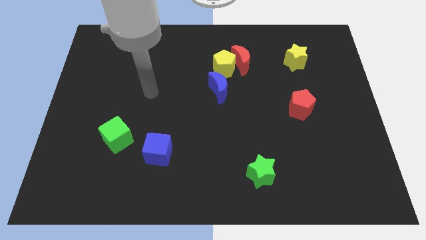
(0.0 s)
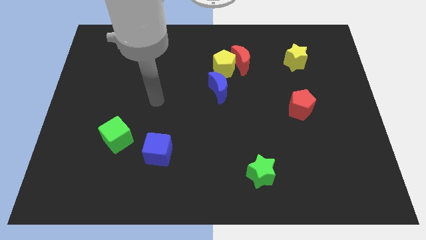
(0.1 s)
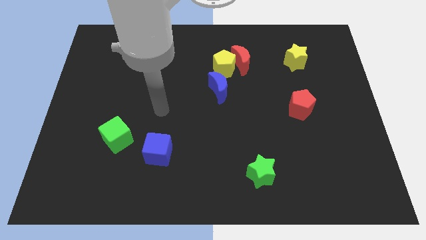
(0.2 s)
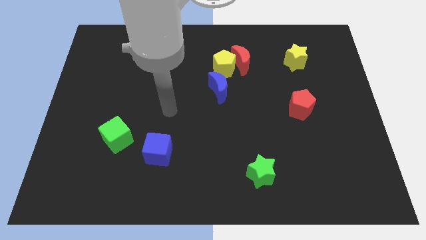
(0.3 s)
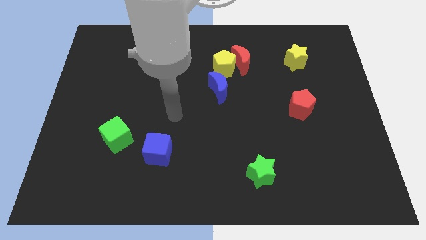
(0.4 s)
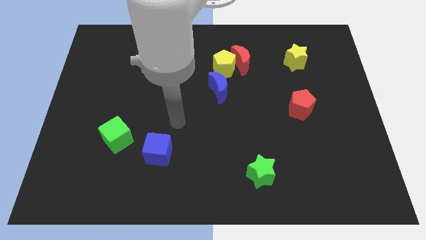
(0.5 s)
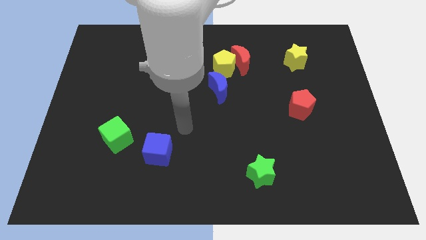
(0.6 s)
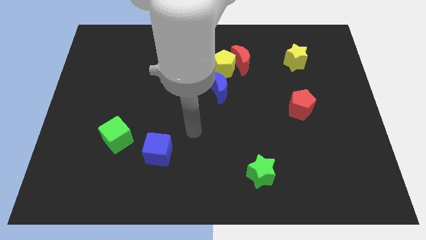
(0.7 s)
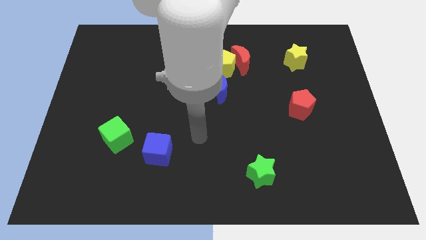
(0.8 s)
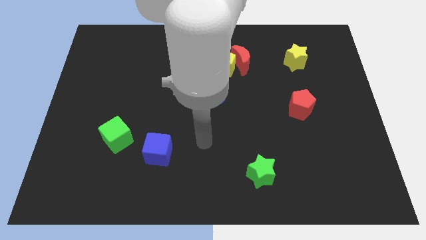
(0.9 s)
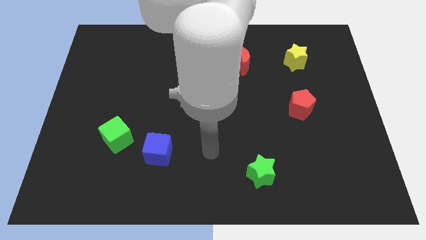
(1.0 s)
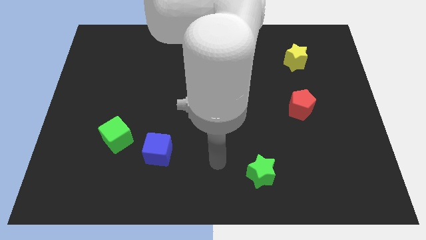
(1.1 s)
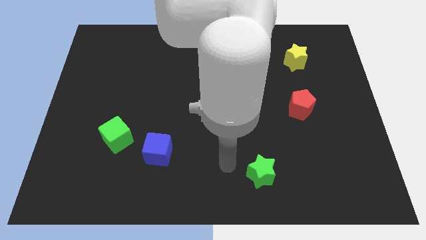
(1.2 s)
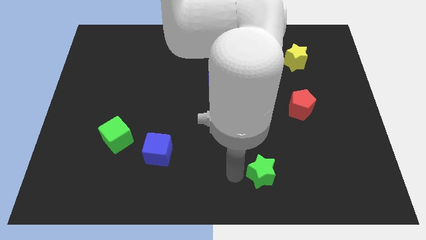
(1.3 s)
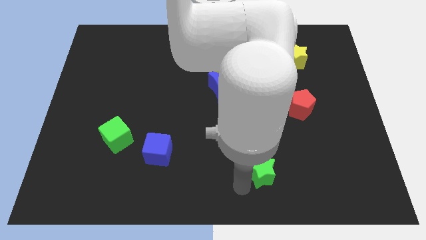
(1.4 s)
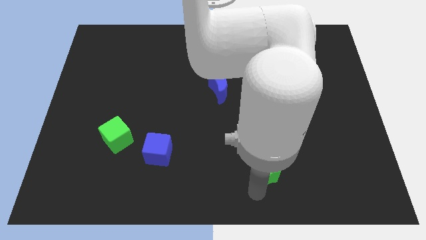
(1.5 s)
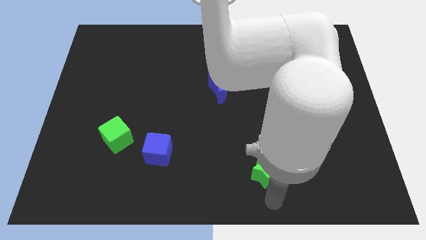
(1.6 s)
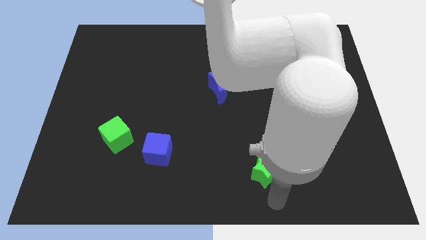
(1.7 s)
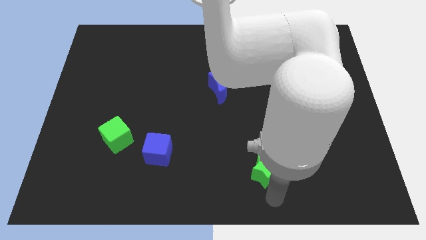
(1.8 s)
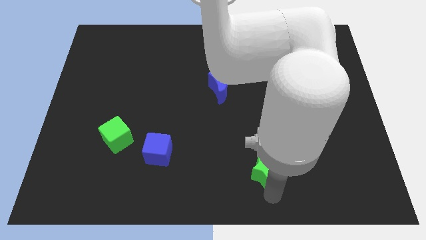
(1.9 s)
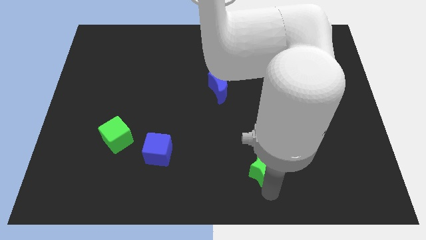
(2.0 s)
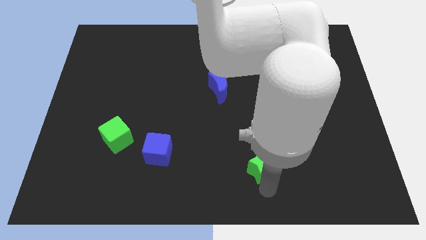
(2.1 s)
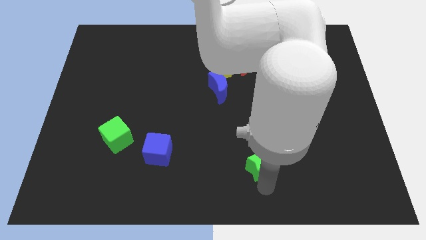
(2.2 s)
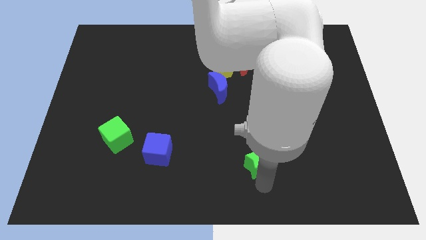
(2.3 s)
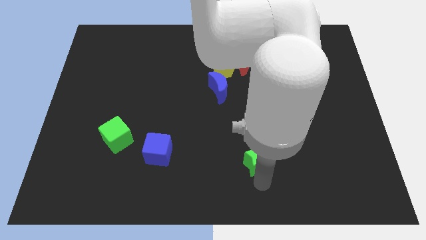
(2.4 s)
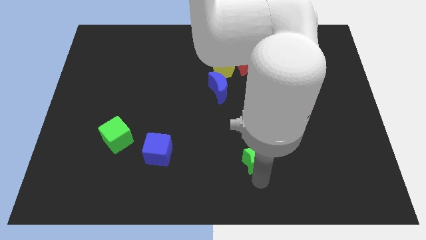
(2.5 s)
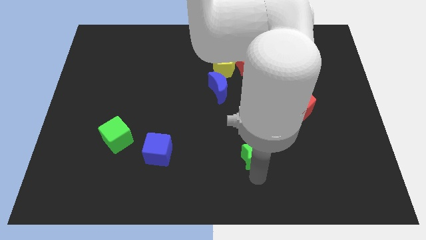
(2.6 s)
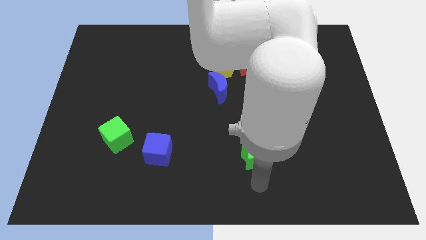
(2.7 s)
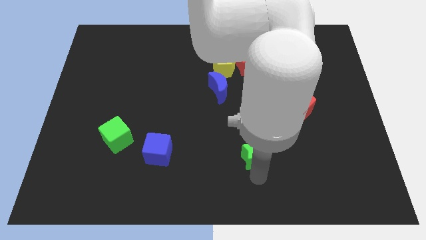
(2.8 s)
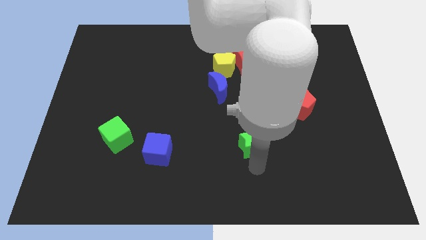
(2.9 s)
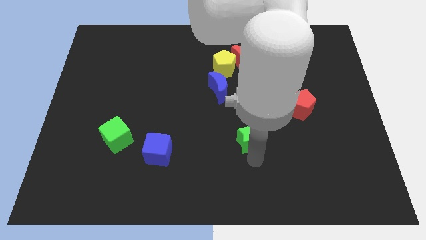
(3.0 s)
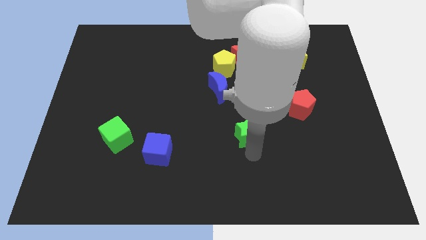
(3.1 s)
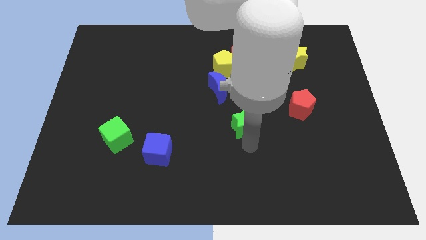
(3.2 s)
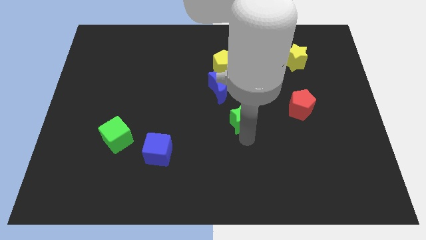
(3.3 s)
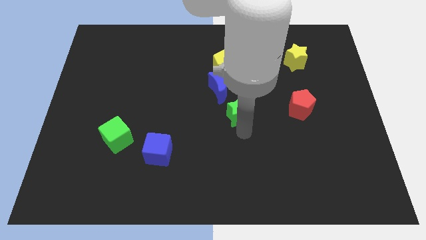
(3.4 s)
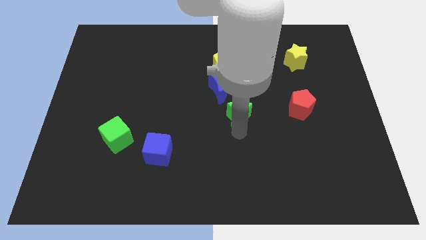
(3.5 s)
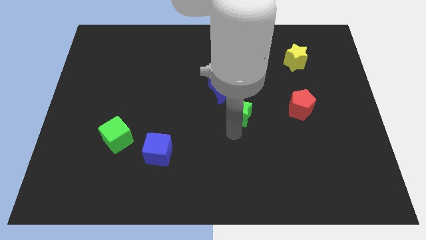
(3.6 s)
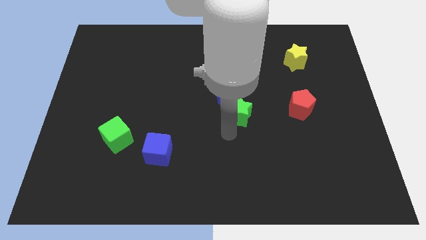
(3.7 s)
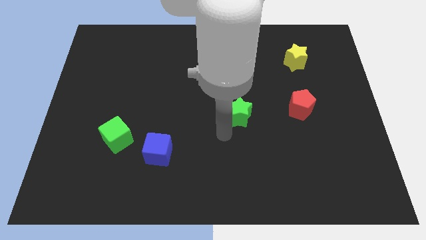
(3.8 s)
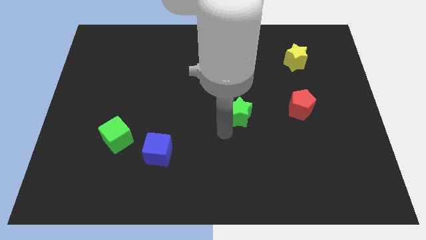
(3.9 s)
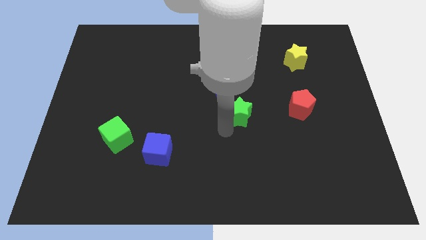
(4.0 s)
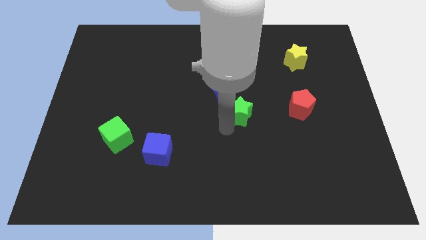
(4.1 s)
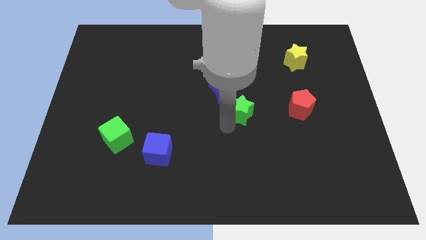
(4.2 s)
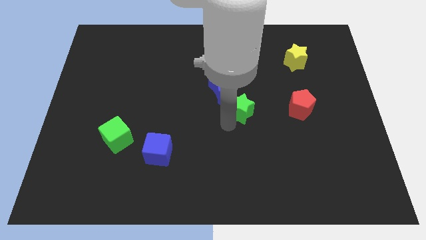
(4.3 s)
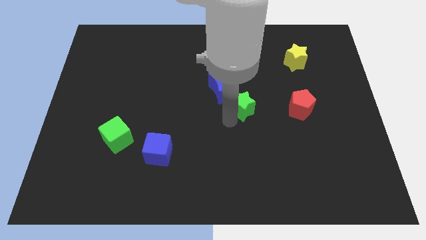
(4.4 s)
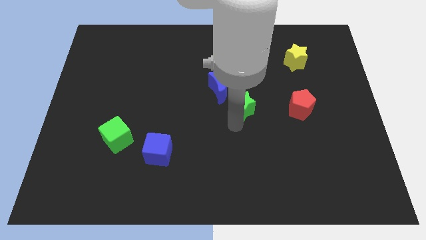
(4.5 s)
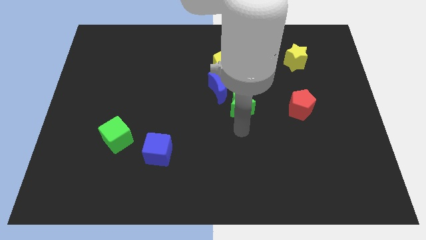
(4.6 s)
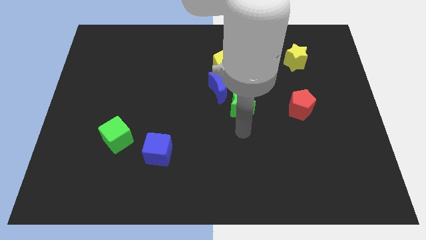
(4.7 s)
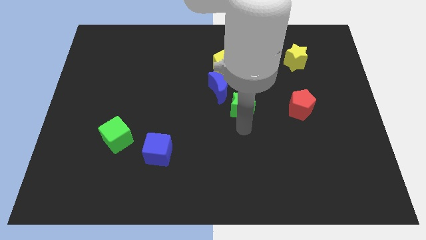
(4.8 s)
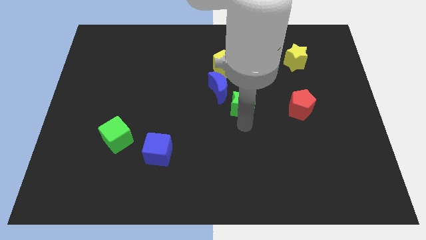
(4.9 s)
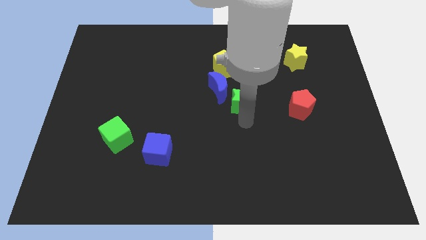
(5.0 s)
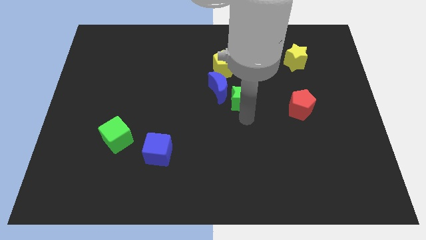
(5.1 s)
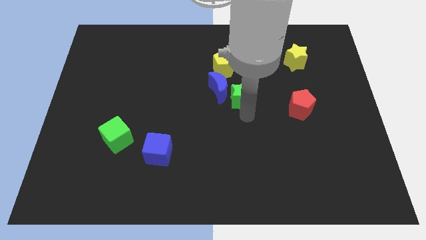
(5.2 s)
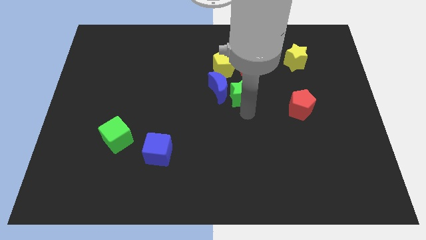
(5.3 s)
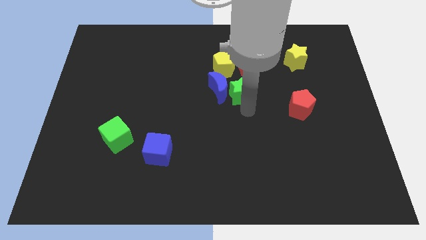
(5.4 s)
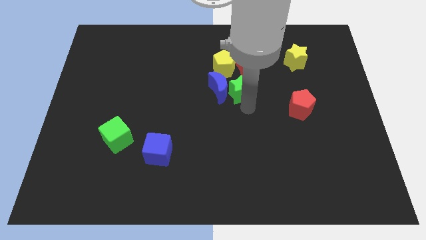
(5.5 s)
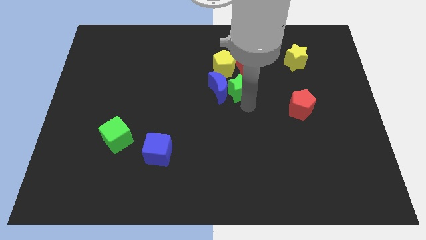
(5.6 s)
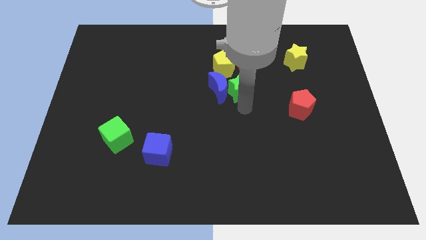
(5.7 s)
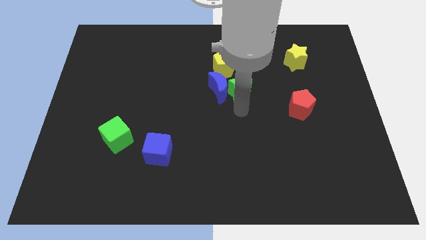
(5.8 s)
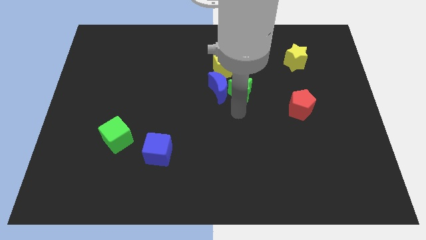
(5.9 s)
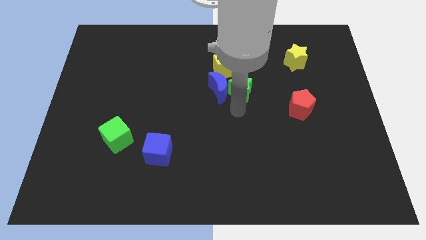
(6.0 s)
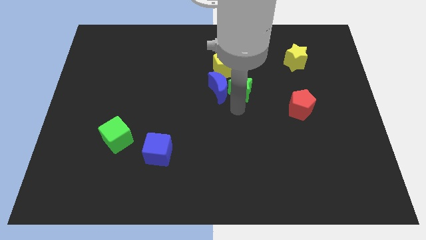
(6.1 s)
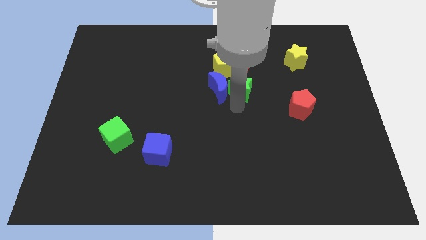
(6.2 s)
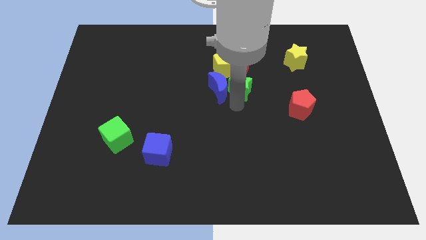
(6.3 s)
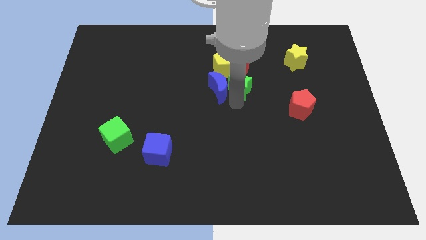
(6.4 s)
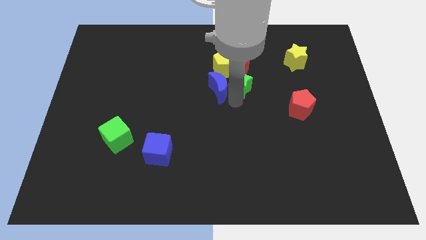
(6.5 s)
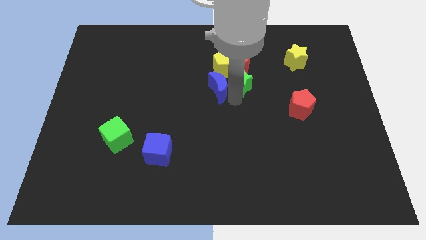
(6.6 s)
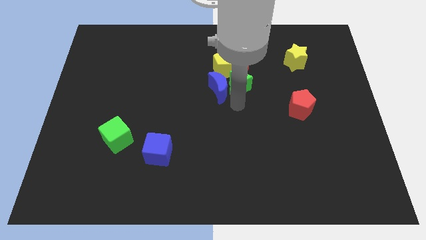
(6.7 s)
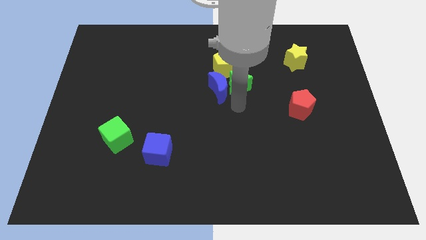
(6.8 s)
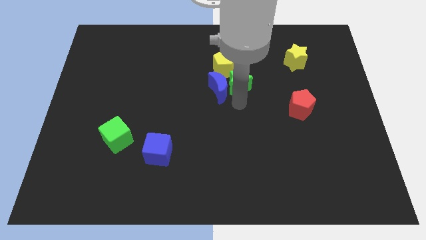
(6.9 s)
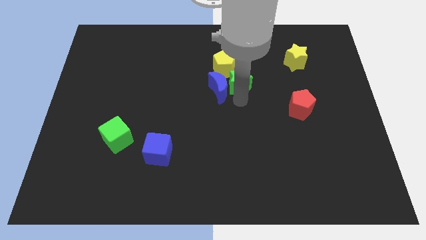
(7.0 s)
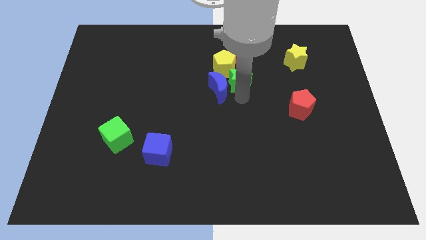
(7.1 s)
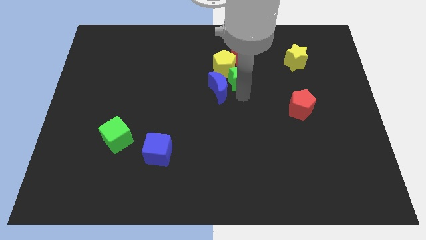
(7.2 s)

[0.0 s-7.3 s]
slide the green star close to the red moon

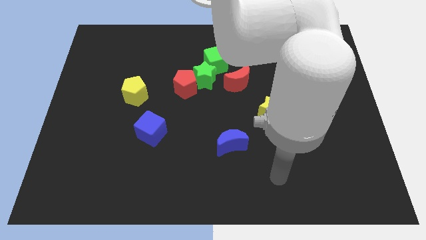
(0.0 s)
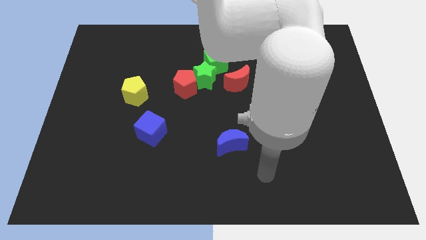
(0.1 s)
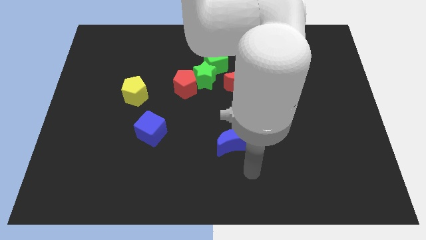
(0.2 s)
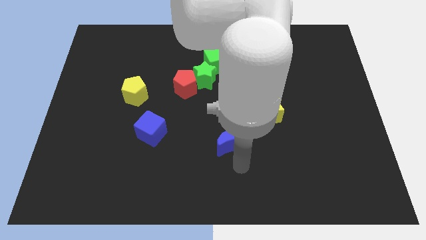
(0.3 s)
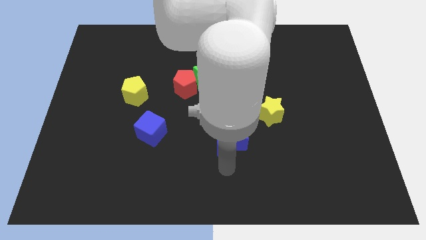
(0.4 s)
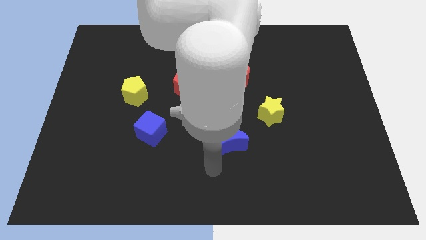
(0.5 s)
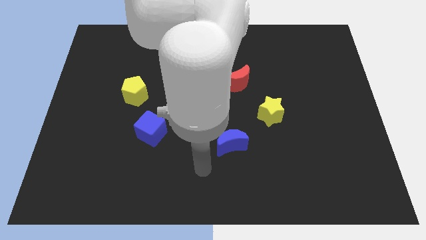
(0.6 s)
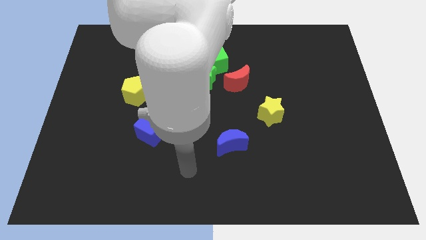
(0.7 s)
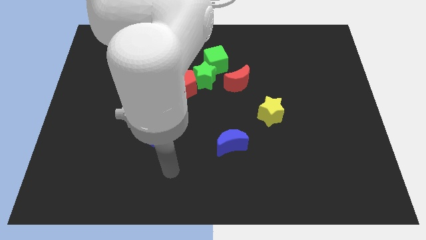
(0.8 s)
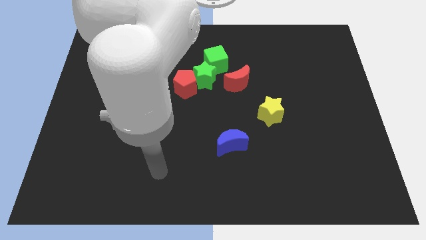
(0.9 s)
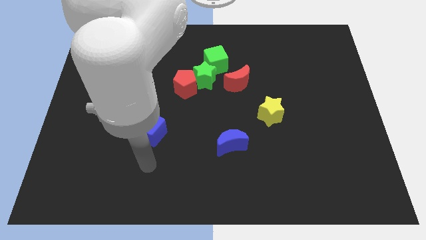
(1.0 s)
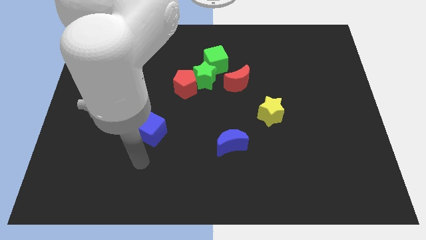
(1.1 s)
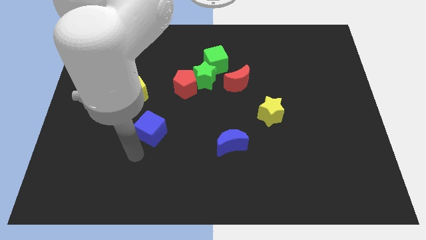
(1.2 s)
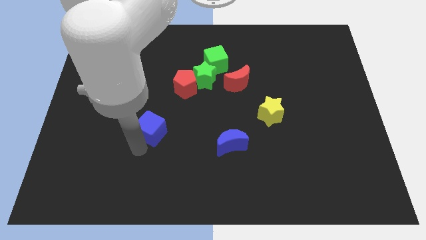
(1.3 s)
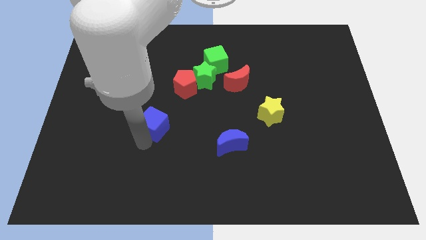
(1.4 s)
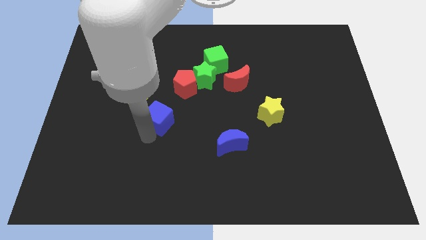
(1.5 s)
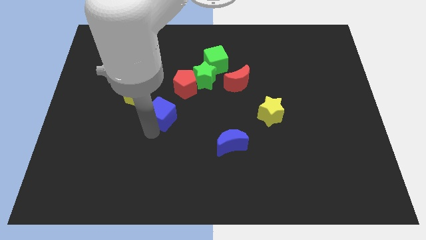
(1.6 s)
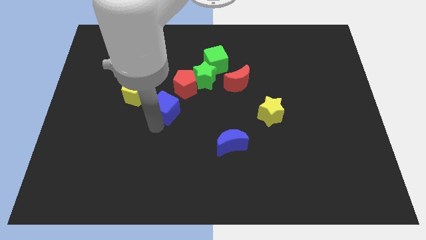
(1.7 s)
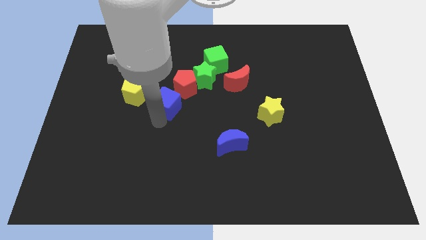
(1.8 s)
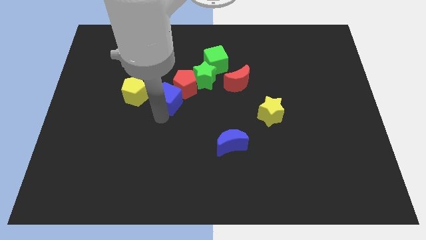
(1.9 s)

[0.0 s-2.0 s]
push the blue cube towards the red pentagon
